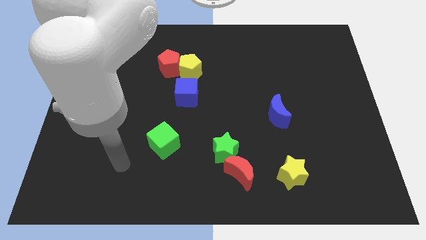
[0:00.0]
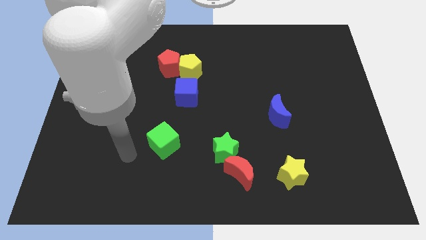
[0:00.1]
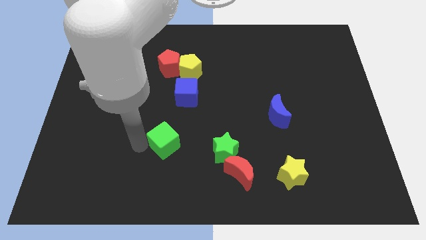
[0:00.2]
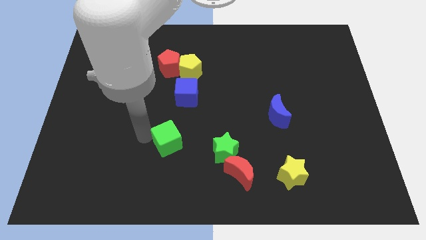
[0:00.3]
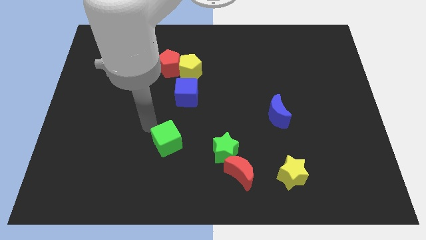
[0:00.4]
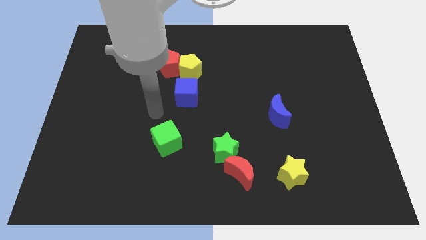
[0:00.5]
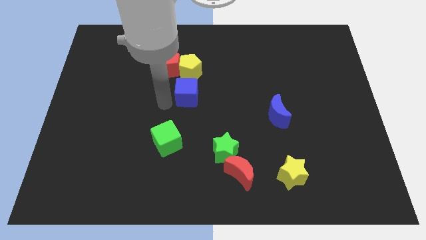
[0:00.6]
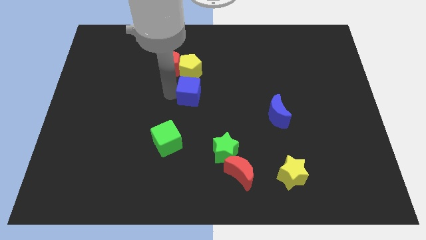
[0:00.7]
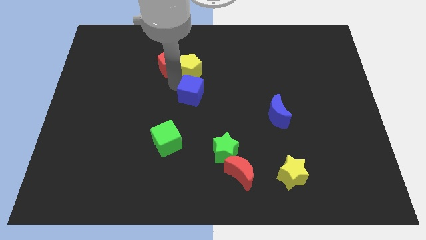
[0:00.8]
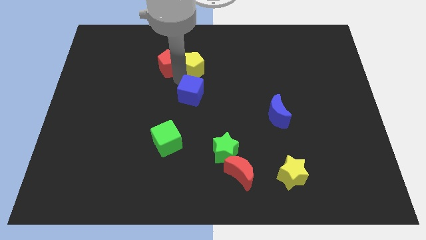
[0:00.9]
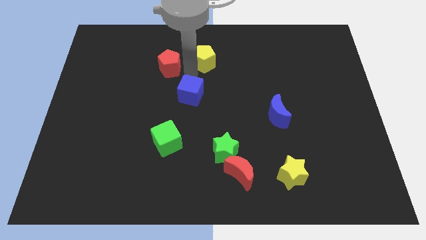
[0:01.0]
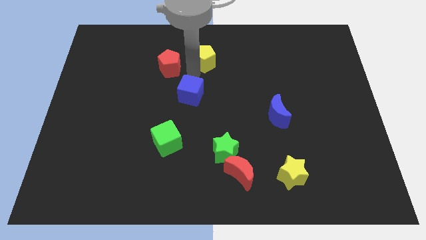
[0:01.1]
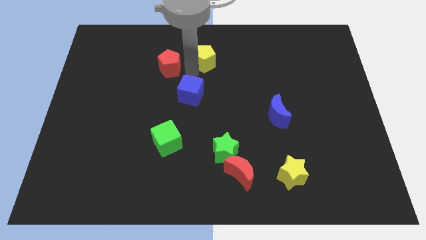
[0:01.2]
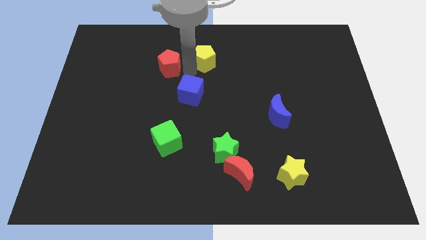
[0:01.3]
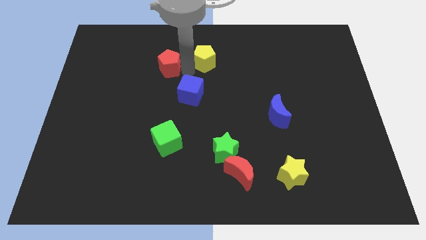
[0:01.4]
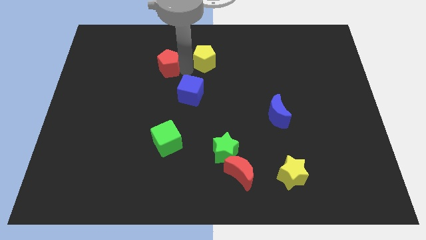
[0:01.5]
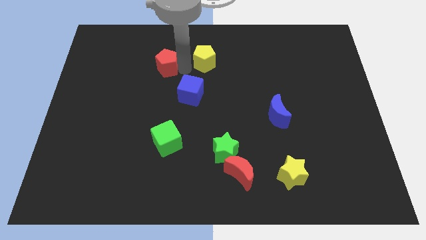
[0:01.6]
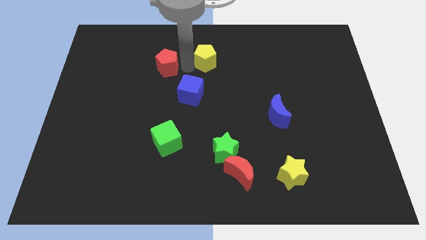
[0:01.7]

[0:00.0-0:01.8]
move the red pentagon away from the yellow pentagon

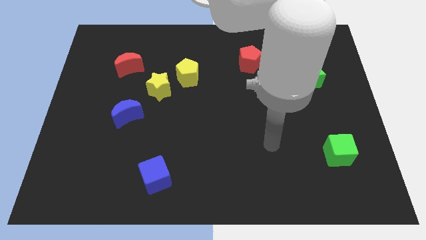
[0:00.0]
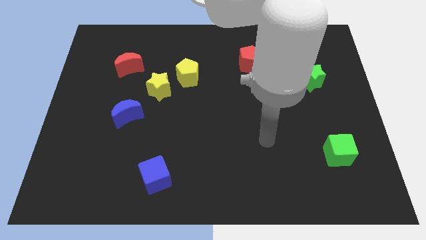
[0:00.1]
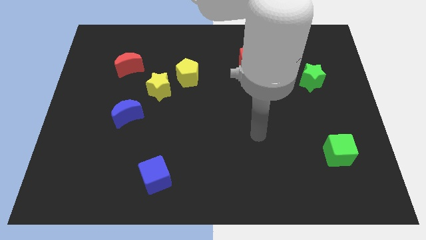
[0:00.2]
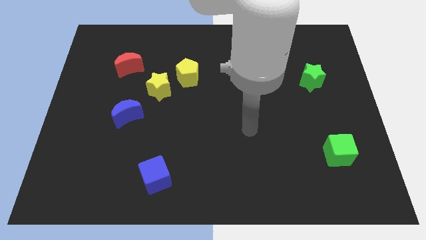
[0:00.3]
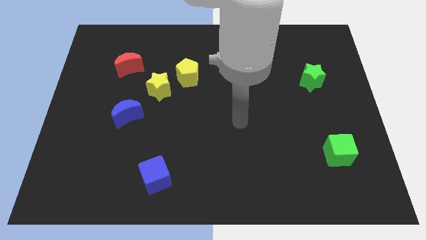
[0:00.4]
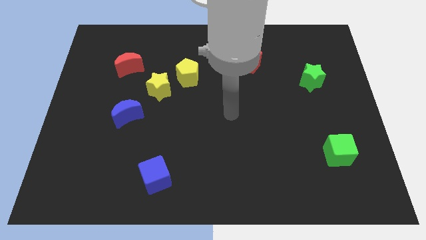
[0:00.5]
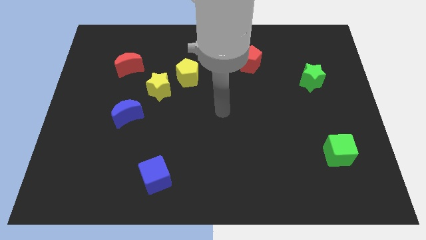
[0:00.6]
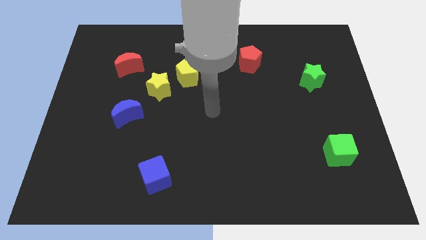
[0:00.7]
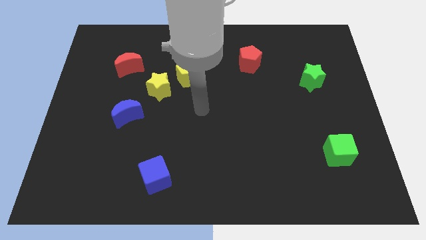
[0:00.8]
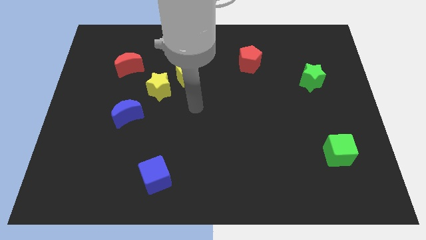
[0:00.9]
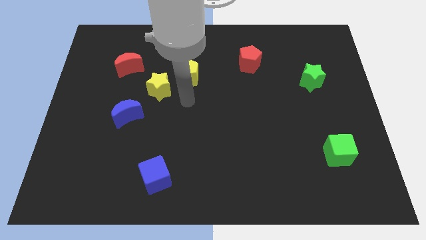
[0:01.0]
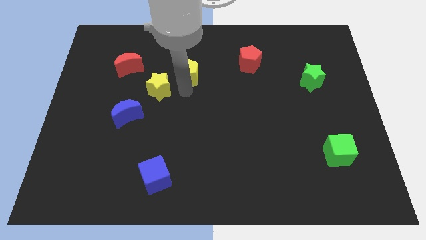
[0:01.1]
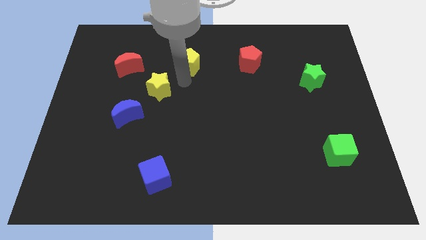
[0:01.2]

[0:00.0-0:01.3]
separate the yellow star from the yellow pentagon

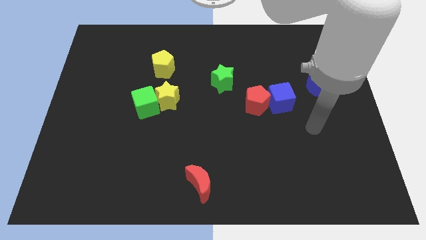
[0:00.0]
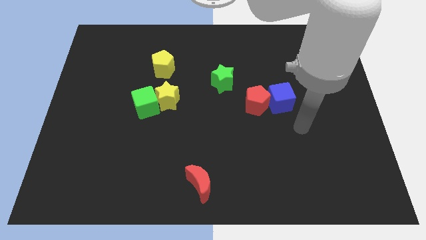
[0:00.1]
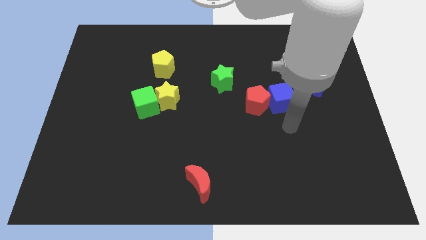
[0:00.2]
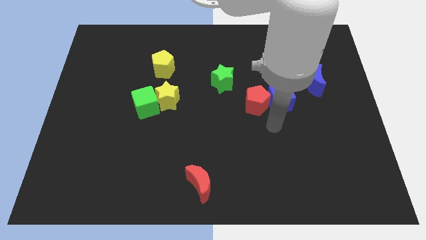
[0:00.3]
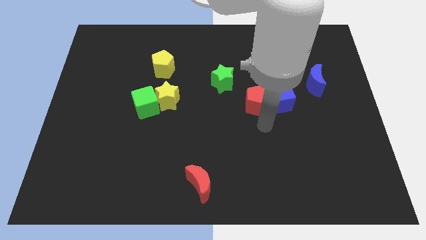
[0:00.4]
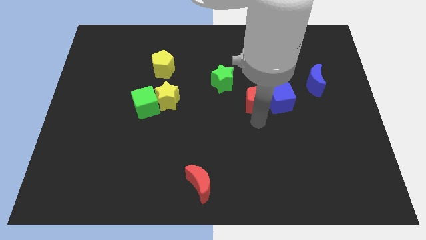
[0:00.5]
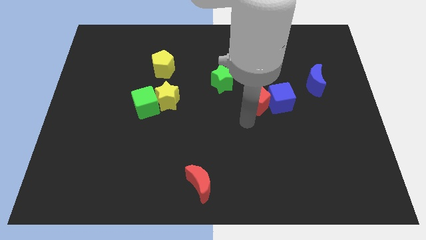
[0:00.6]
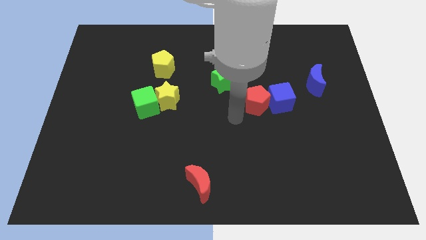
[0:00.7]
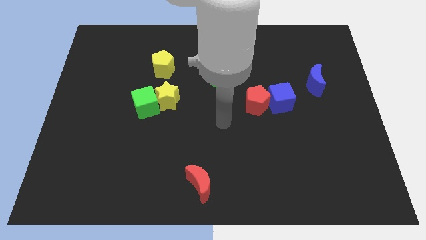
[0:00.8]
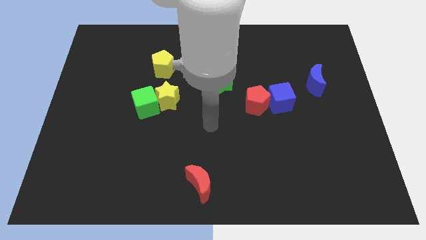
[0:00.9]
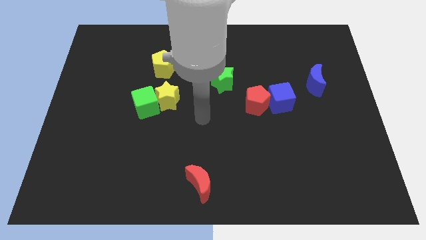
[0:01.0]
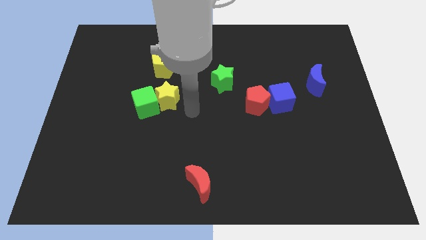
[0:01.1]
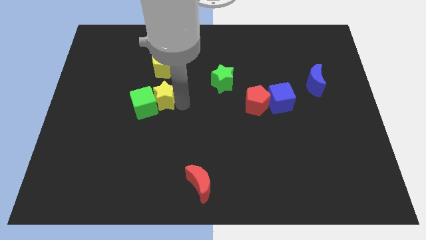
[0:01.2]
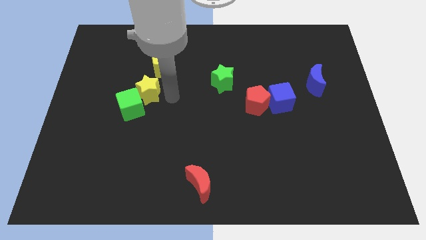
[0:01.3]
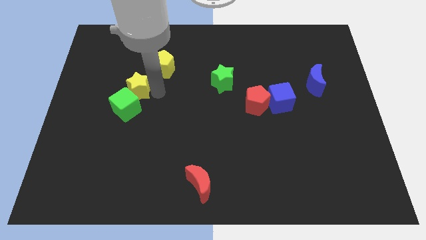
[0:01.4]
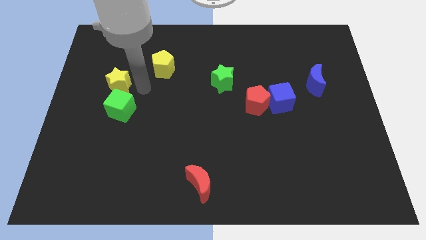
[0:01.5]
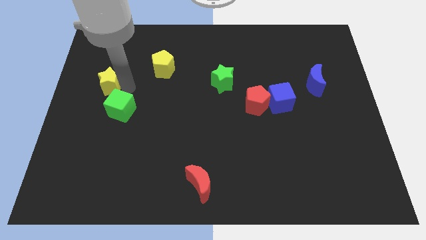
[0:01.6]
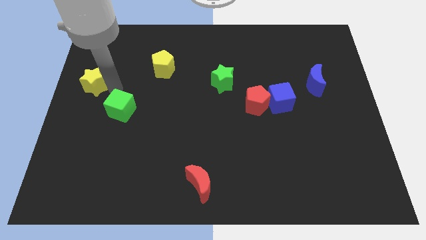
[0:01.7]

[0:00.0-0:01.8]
separate the green cube from the yellow star

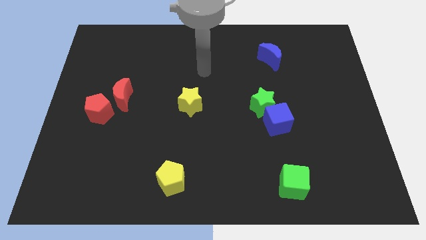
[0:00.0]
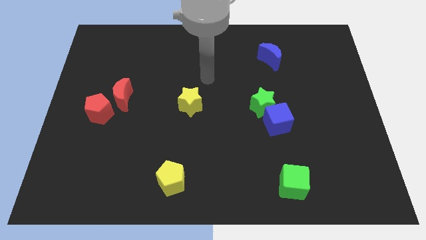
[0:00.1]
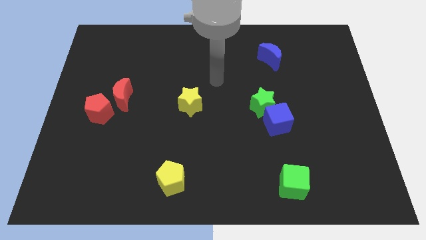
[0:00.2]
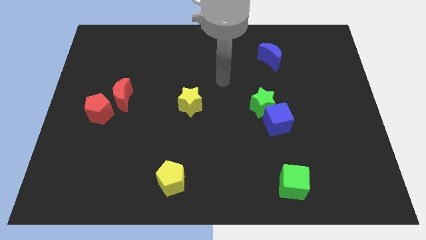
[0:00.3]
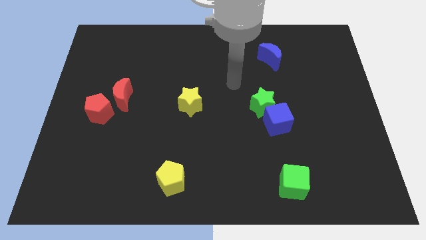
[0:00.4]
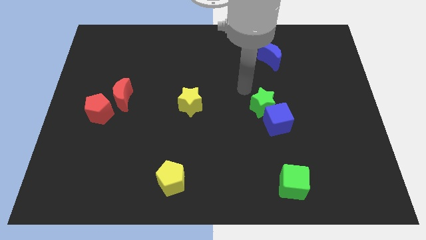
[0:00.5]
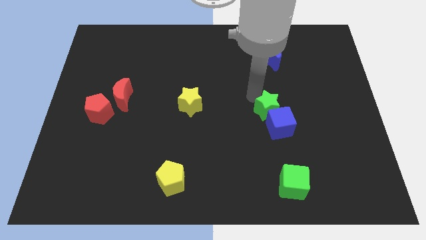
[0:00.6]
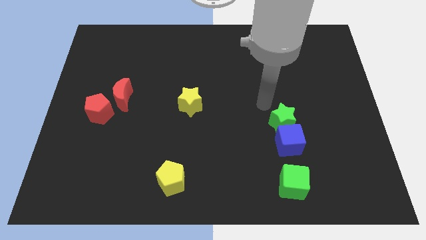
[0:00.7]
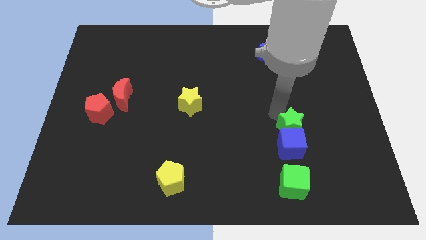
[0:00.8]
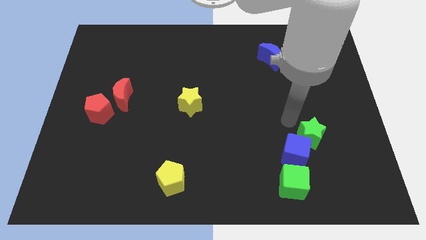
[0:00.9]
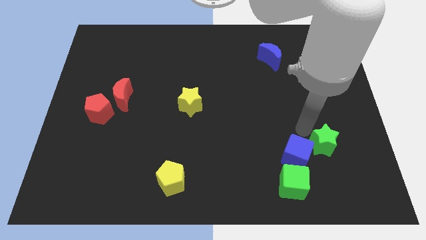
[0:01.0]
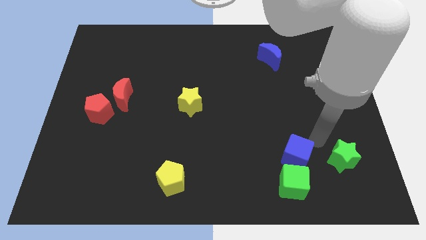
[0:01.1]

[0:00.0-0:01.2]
separate the blue cube from the green star

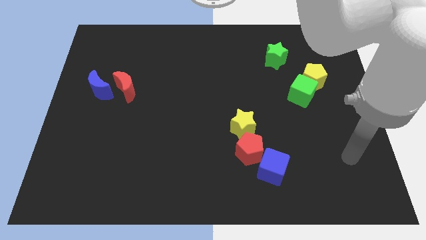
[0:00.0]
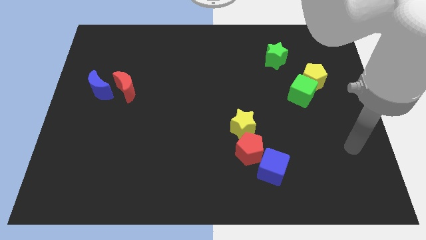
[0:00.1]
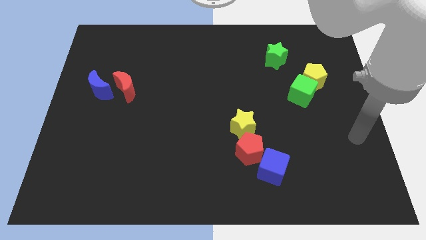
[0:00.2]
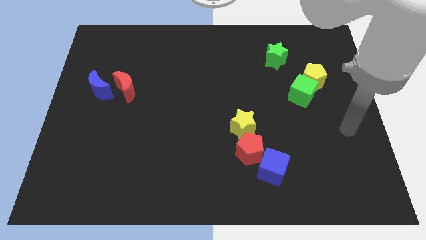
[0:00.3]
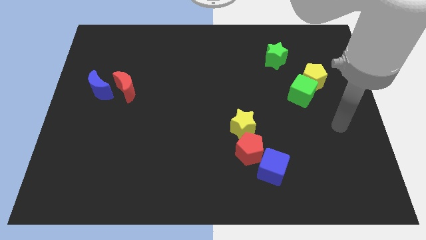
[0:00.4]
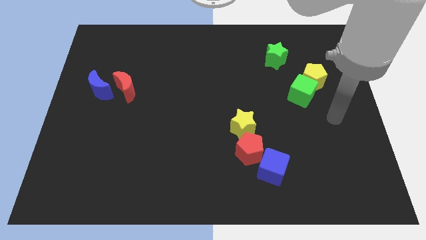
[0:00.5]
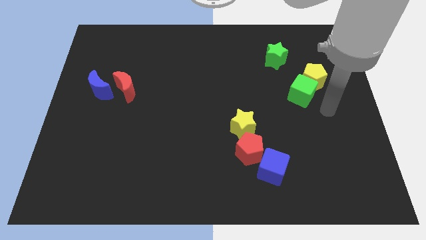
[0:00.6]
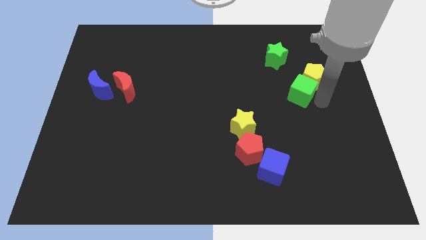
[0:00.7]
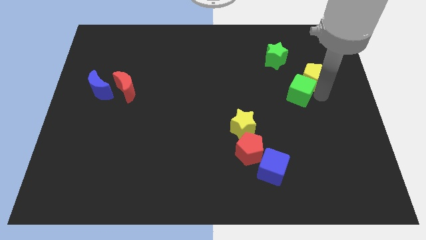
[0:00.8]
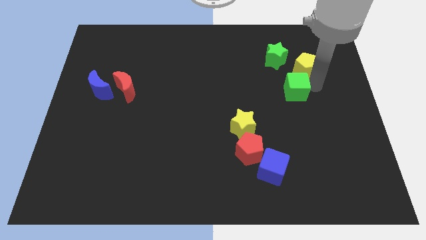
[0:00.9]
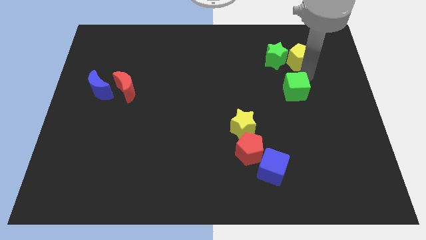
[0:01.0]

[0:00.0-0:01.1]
separate the green cube from the yellow pentagon

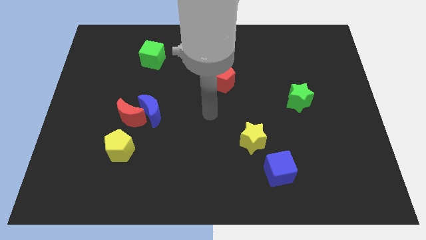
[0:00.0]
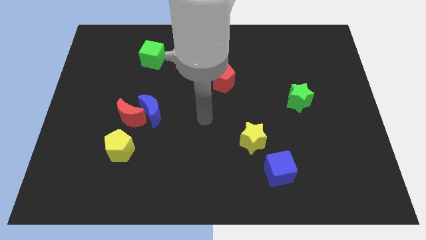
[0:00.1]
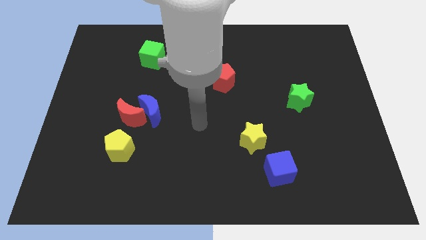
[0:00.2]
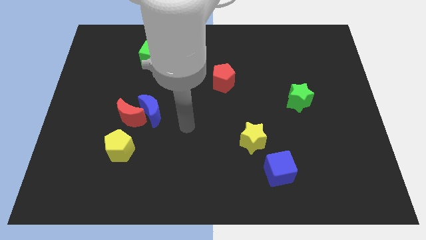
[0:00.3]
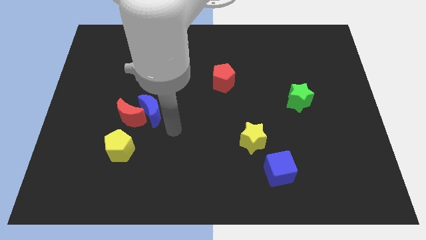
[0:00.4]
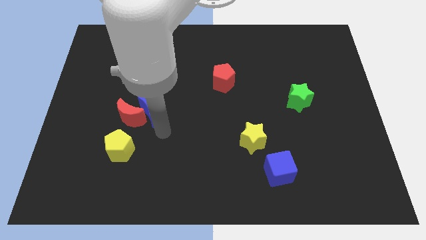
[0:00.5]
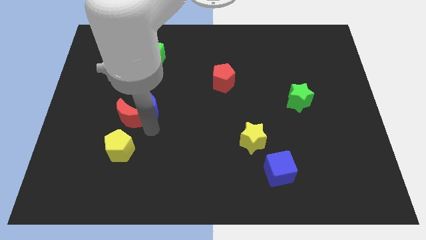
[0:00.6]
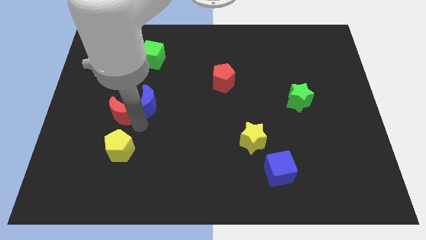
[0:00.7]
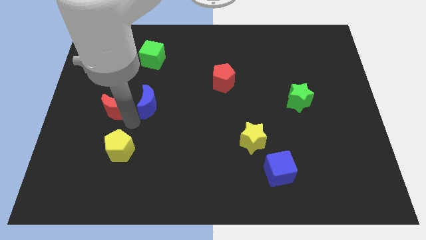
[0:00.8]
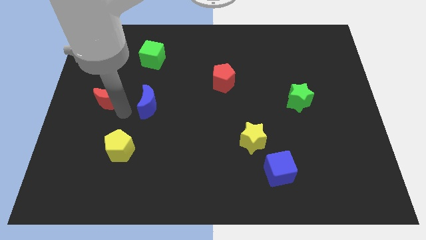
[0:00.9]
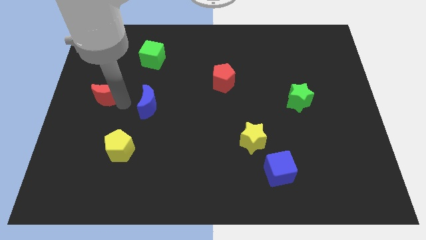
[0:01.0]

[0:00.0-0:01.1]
separate the blue moon from the red moon

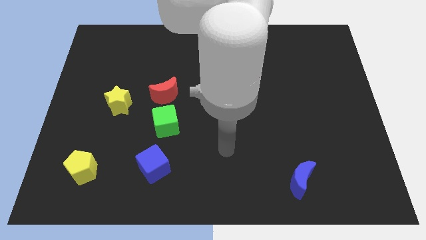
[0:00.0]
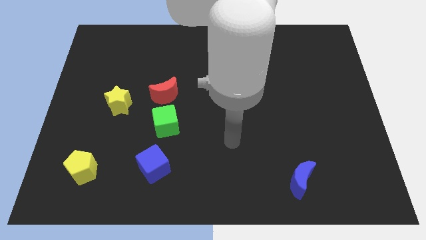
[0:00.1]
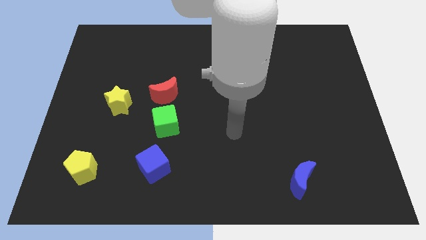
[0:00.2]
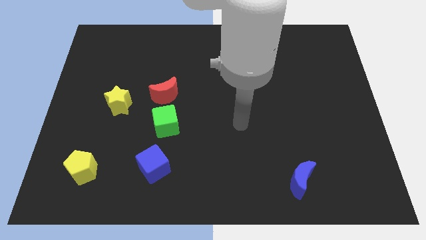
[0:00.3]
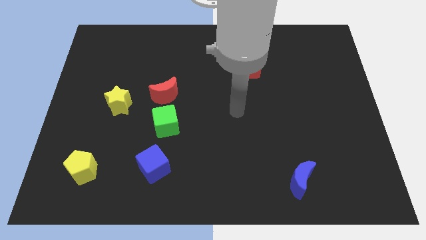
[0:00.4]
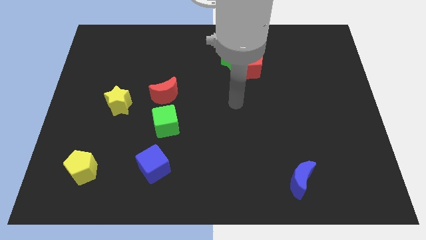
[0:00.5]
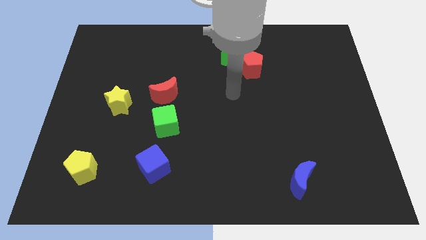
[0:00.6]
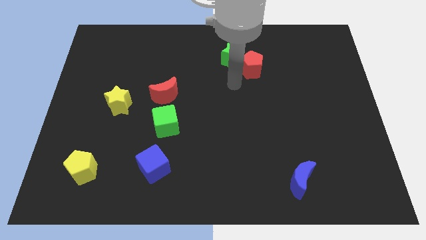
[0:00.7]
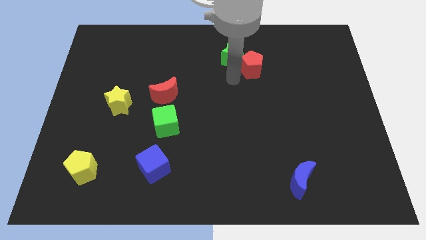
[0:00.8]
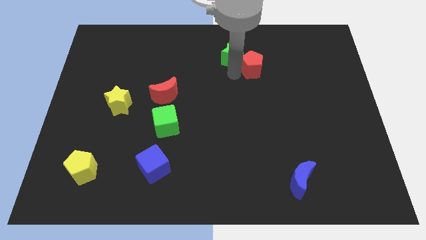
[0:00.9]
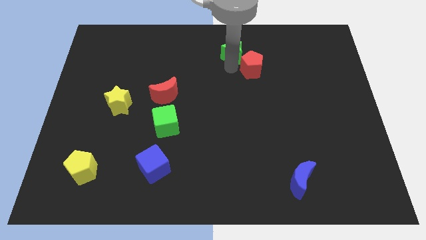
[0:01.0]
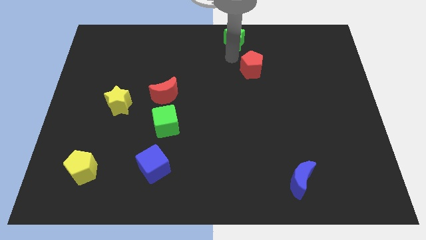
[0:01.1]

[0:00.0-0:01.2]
separate the red pentagon from the green star
